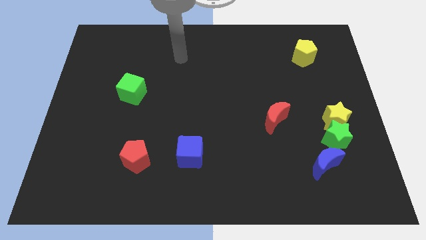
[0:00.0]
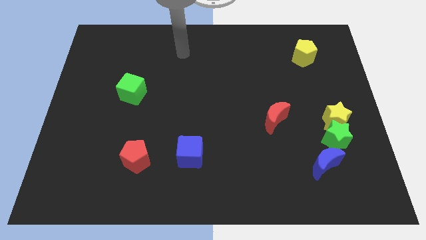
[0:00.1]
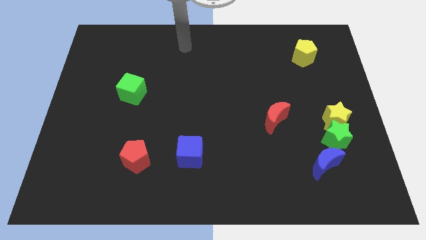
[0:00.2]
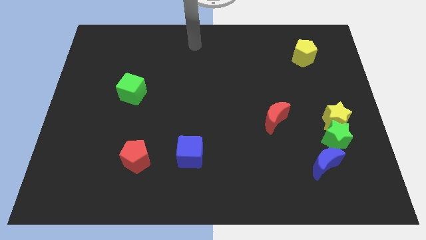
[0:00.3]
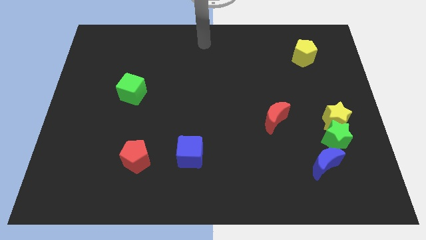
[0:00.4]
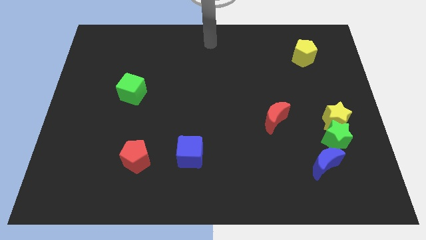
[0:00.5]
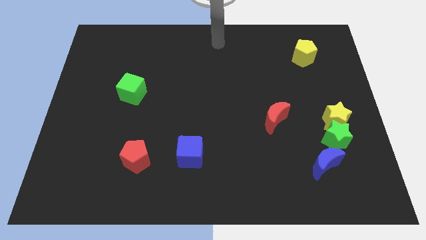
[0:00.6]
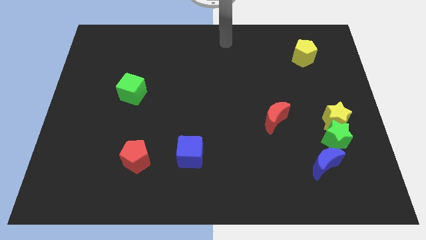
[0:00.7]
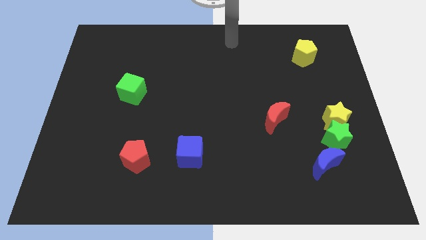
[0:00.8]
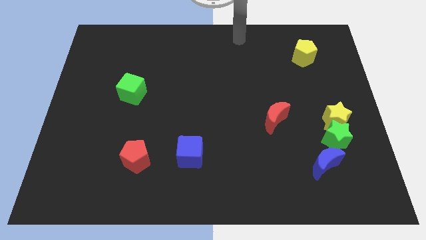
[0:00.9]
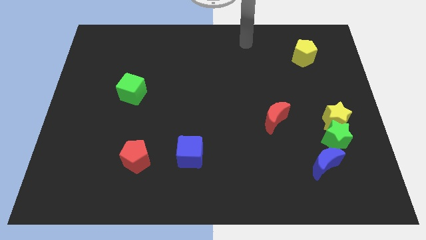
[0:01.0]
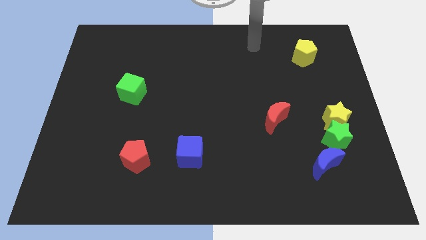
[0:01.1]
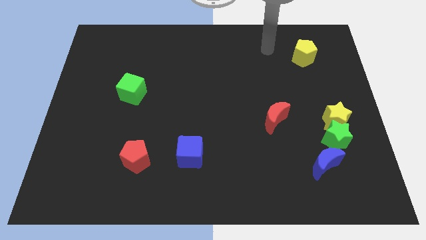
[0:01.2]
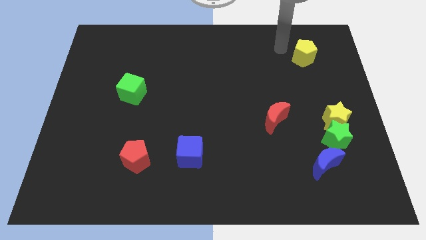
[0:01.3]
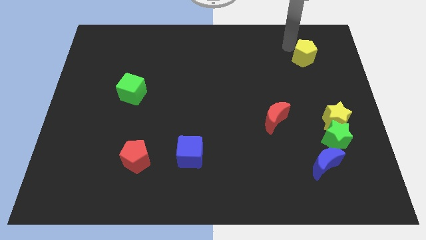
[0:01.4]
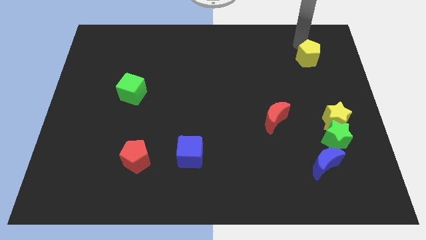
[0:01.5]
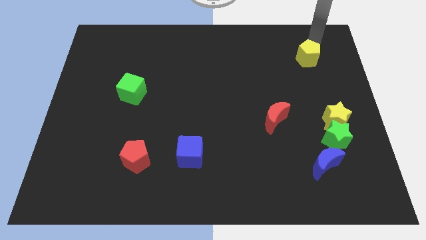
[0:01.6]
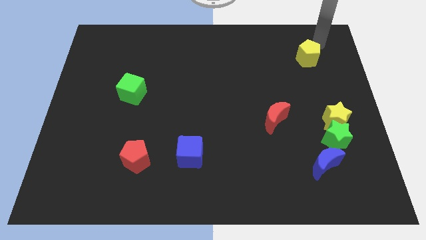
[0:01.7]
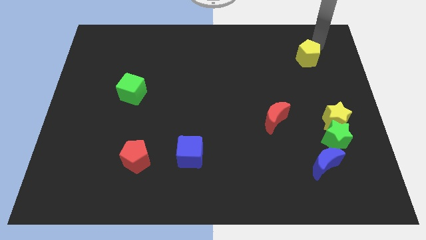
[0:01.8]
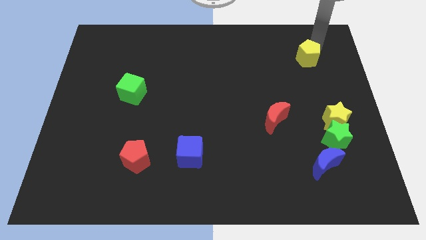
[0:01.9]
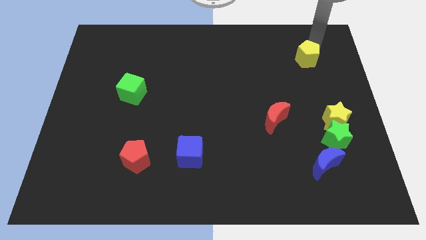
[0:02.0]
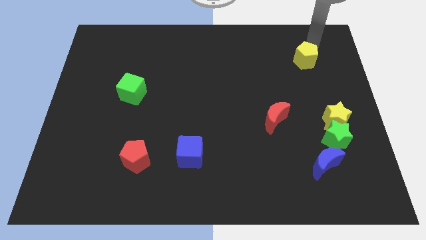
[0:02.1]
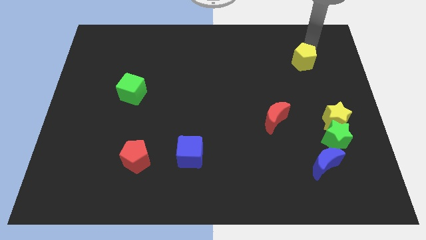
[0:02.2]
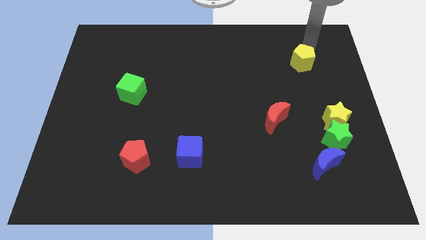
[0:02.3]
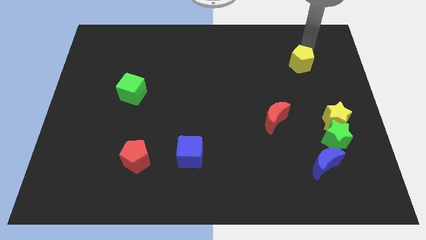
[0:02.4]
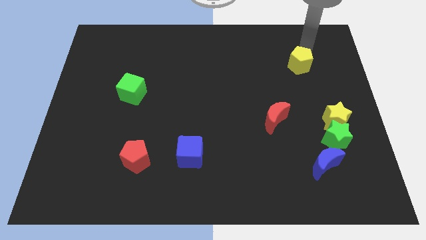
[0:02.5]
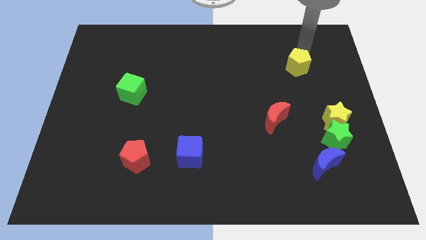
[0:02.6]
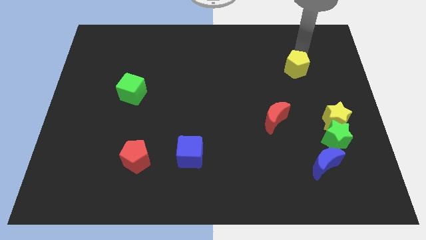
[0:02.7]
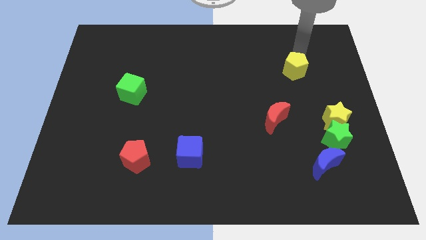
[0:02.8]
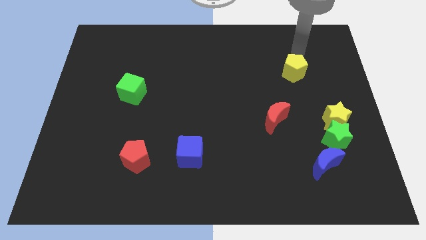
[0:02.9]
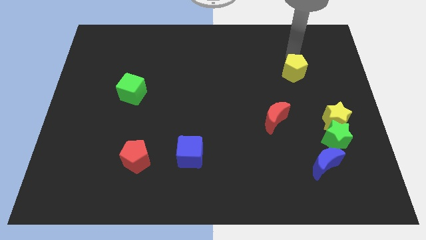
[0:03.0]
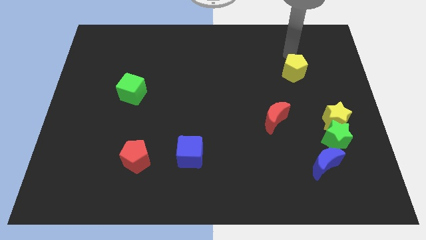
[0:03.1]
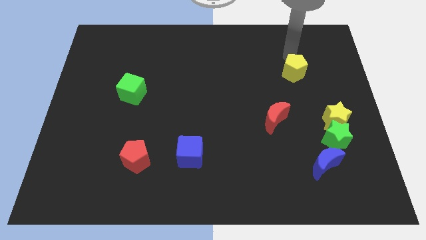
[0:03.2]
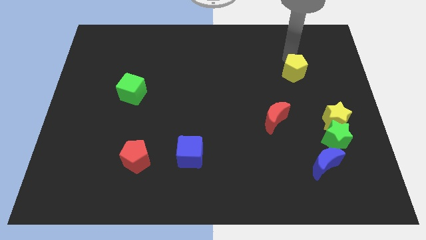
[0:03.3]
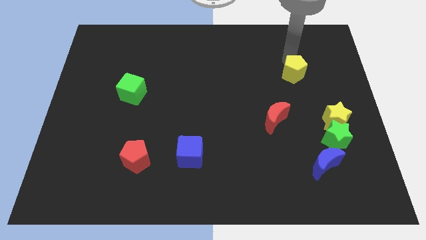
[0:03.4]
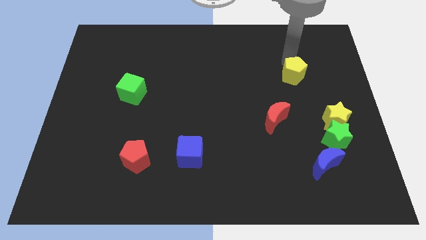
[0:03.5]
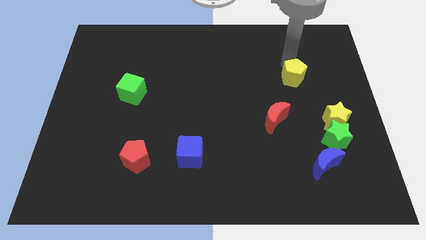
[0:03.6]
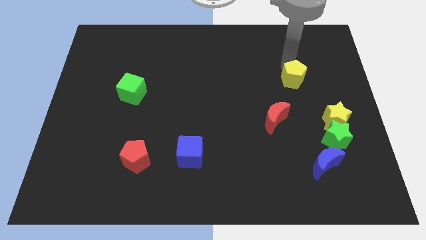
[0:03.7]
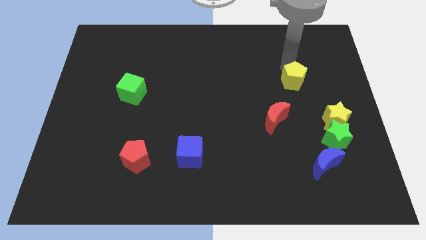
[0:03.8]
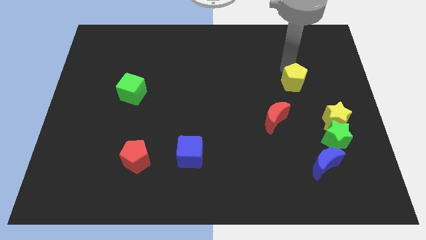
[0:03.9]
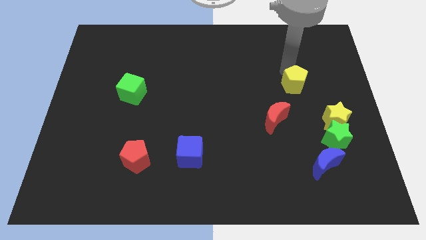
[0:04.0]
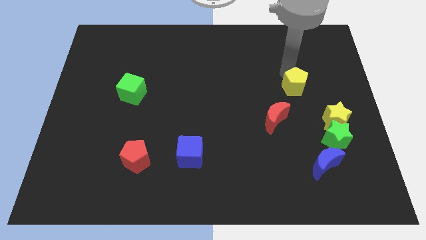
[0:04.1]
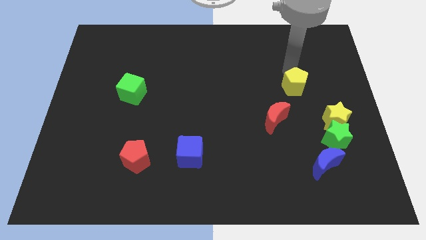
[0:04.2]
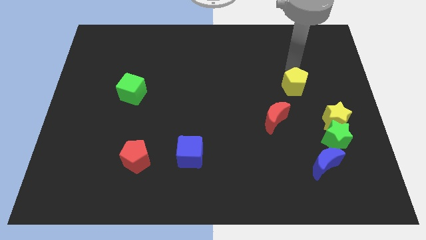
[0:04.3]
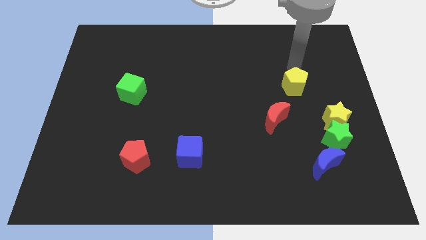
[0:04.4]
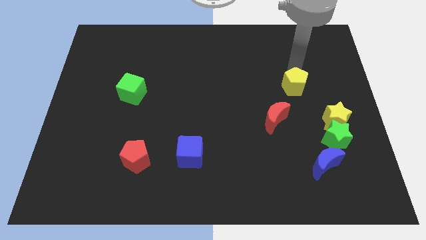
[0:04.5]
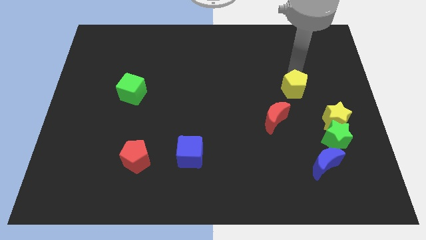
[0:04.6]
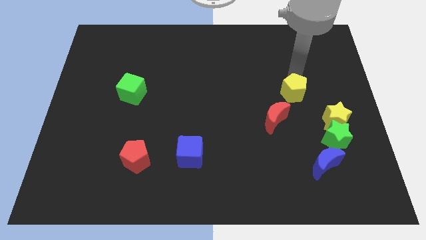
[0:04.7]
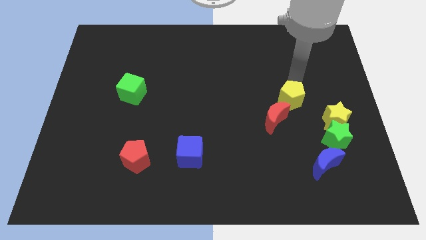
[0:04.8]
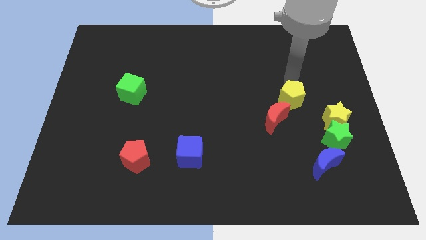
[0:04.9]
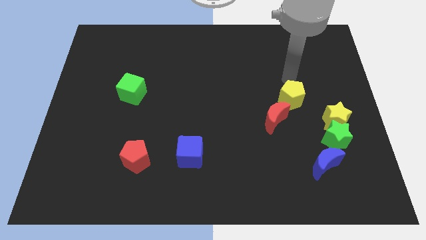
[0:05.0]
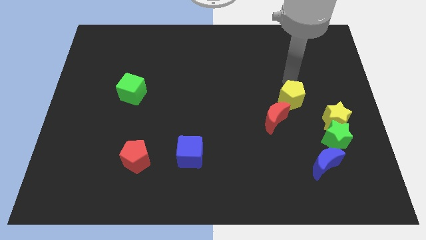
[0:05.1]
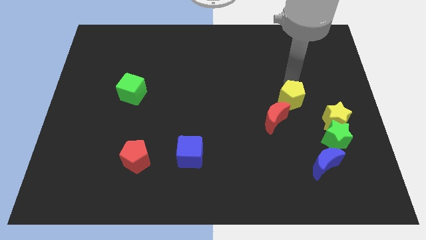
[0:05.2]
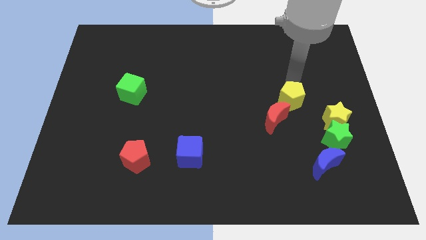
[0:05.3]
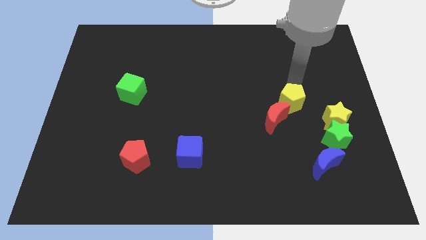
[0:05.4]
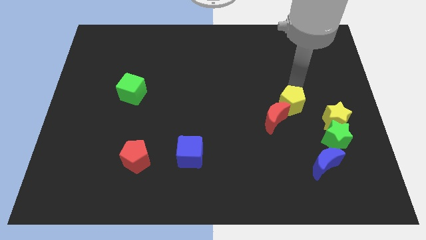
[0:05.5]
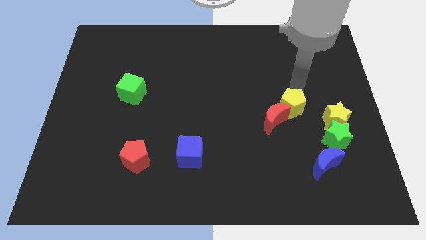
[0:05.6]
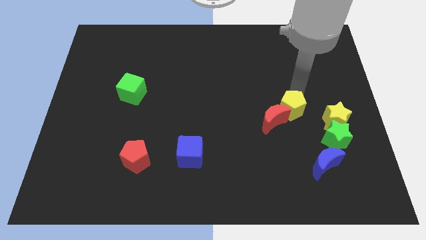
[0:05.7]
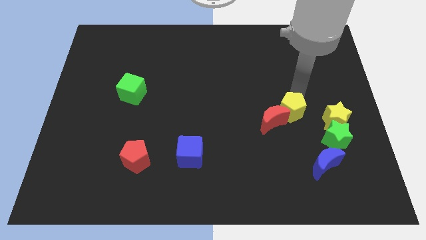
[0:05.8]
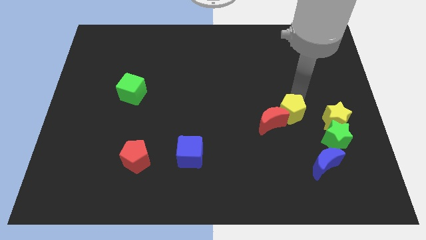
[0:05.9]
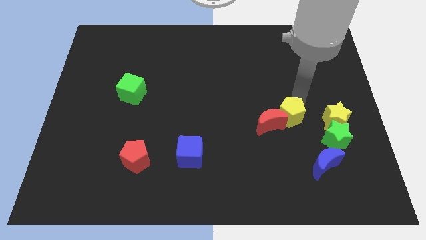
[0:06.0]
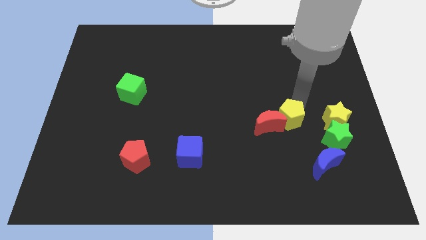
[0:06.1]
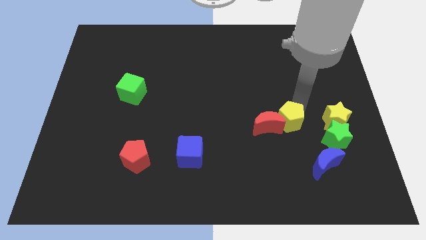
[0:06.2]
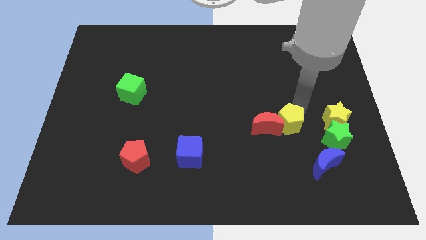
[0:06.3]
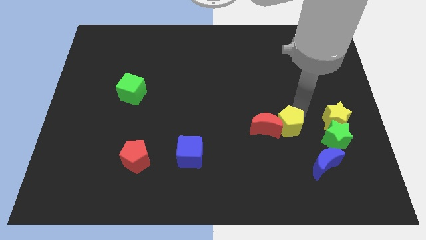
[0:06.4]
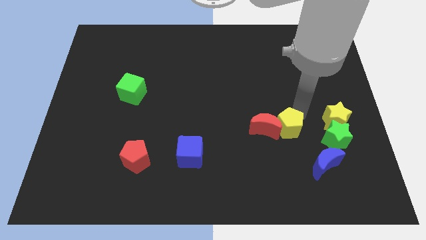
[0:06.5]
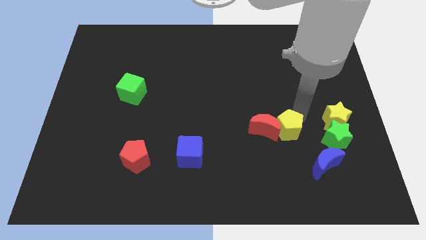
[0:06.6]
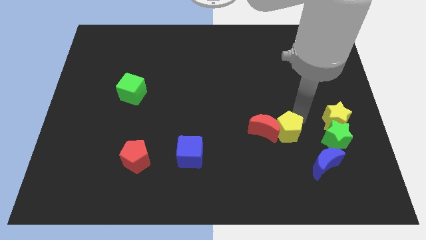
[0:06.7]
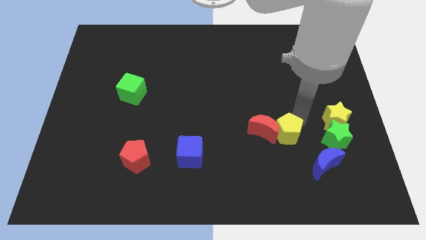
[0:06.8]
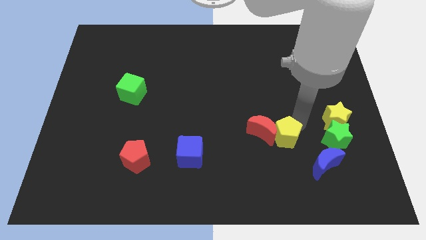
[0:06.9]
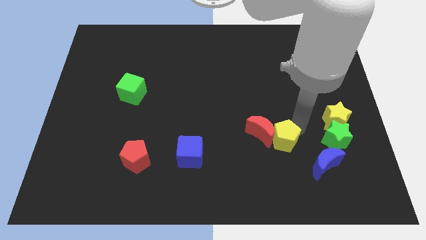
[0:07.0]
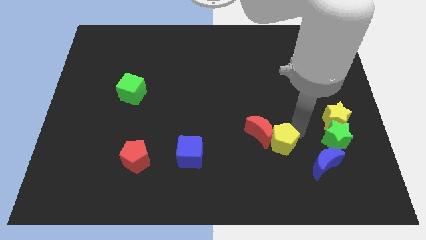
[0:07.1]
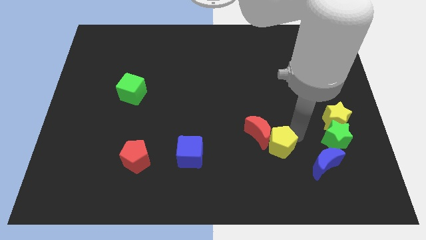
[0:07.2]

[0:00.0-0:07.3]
slide the yellow pentagon to the bottom of the red moon
